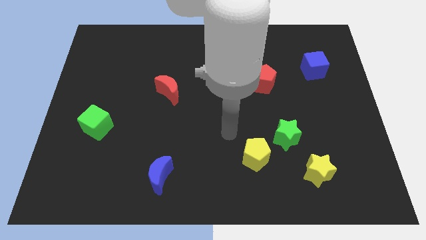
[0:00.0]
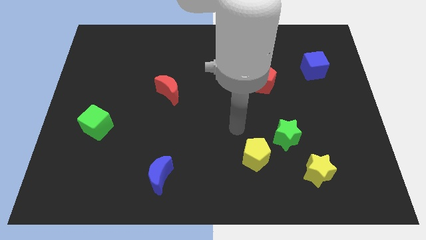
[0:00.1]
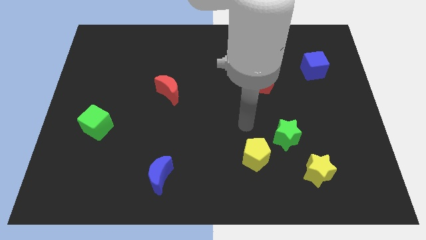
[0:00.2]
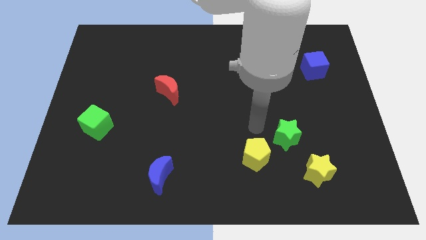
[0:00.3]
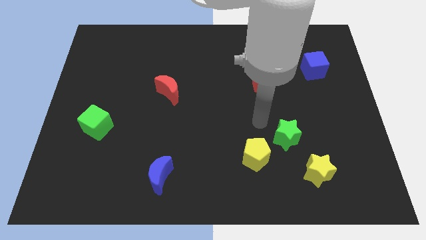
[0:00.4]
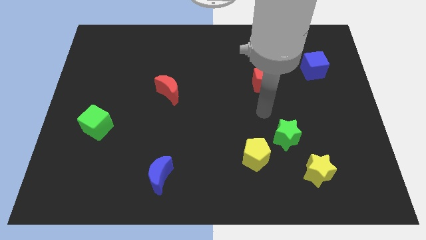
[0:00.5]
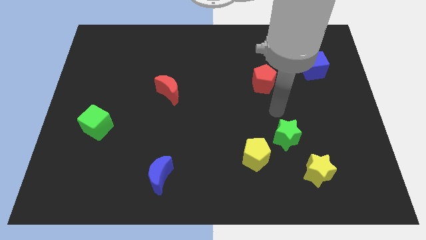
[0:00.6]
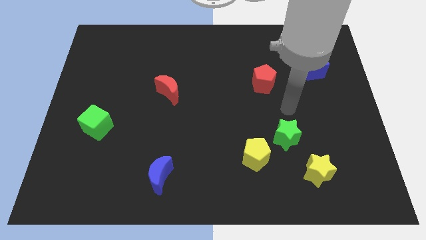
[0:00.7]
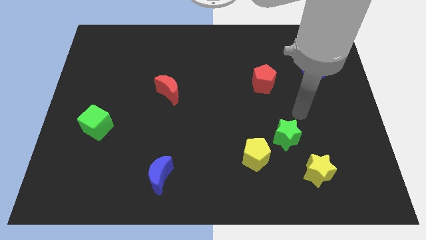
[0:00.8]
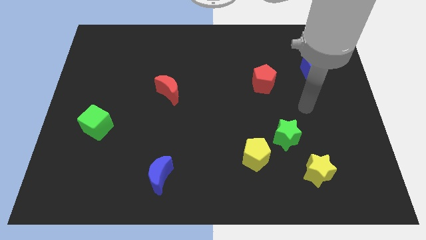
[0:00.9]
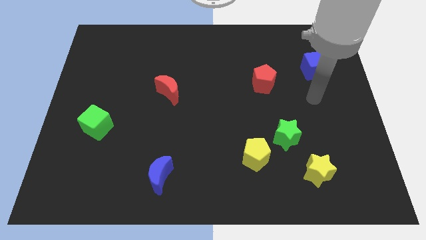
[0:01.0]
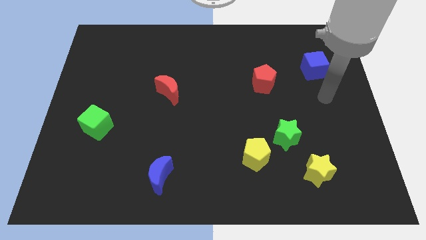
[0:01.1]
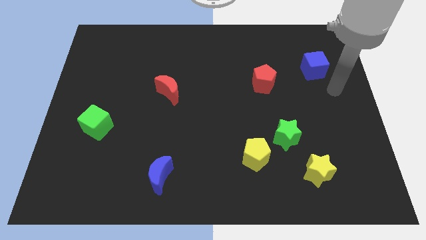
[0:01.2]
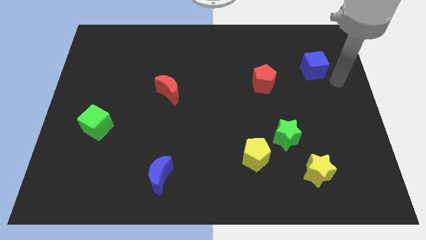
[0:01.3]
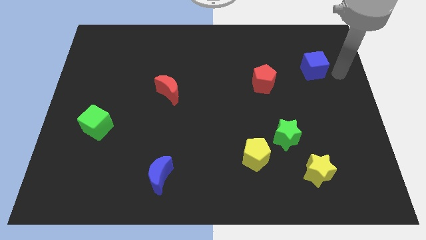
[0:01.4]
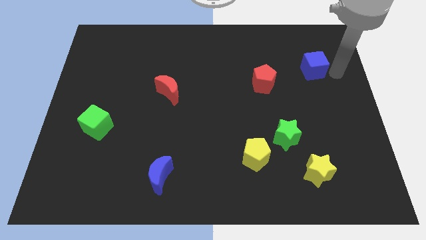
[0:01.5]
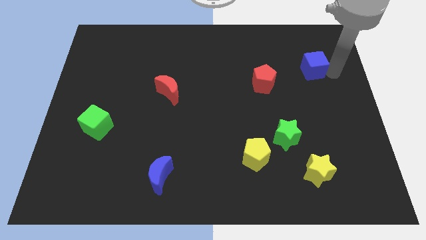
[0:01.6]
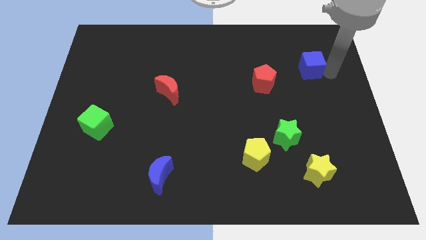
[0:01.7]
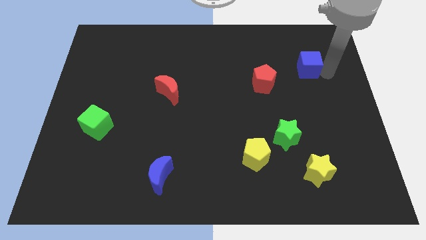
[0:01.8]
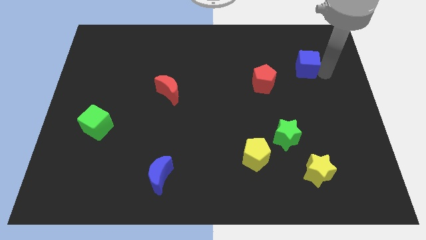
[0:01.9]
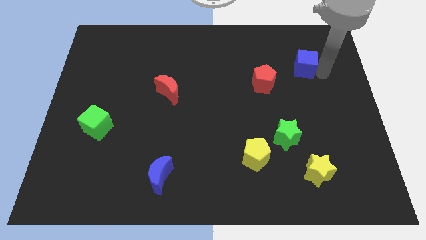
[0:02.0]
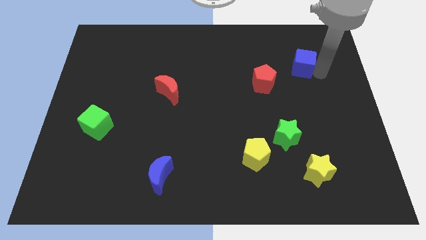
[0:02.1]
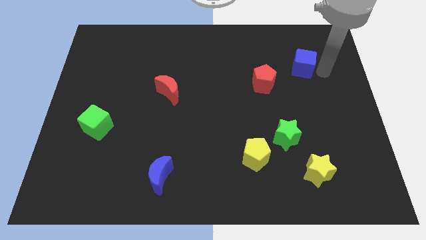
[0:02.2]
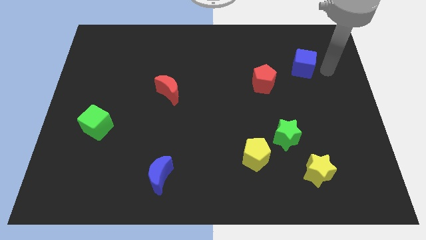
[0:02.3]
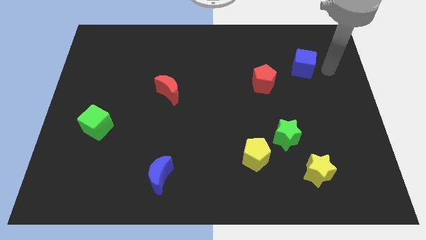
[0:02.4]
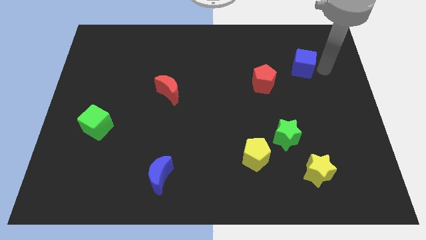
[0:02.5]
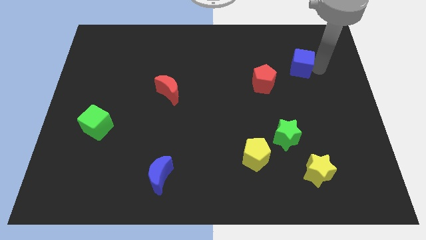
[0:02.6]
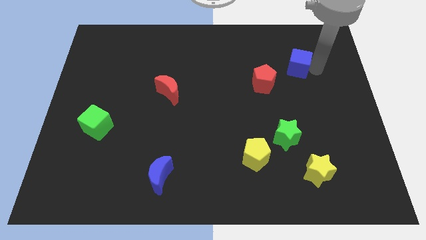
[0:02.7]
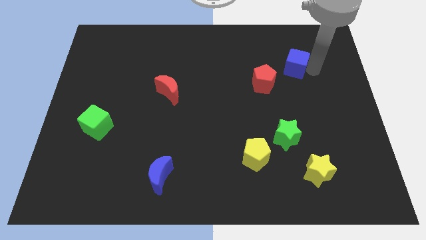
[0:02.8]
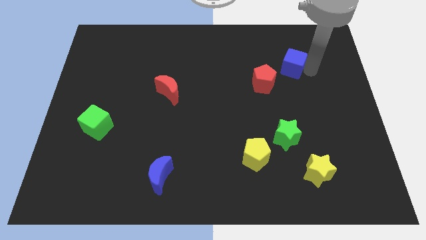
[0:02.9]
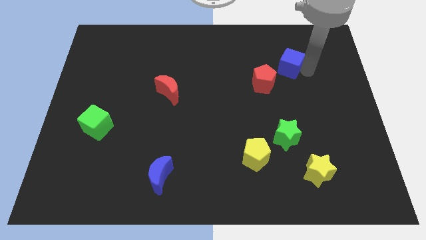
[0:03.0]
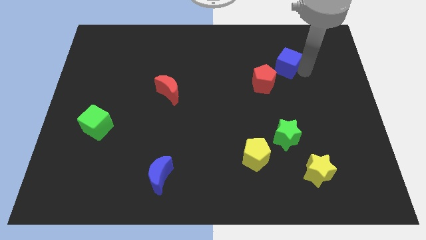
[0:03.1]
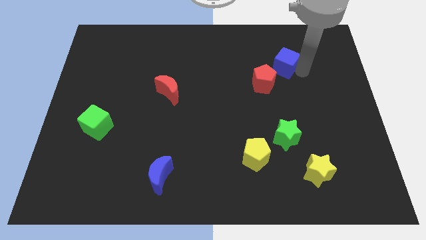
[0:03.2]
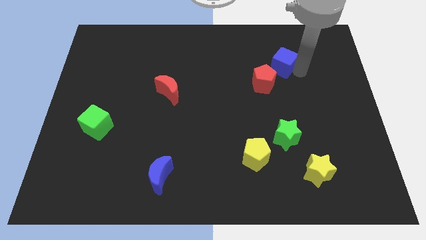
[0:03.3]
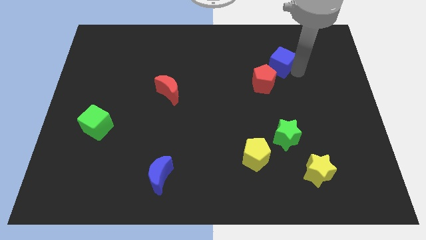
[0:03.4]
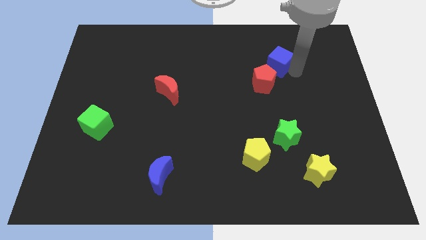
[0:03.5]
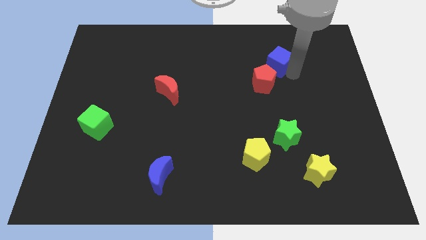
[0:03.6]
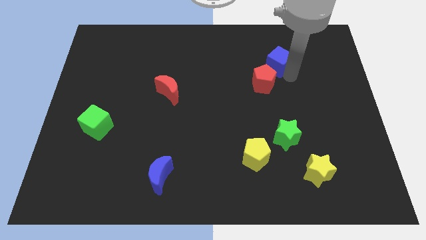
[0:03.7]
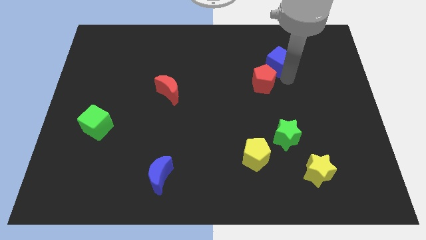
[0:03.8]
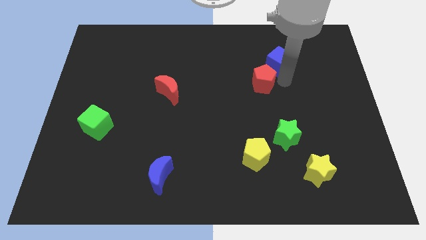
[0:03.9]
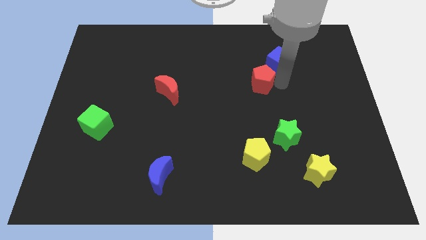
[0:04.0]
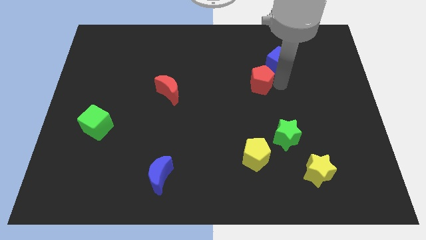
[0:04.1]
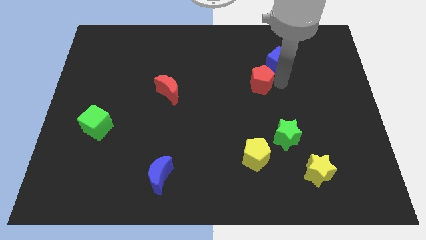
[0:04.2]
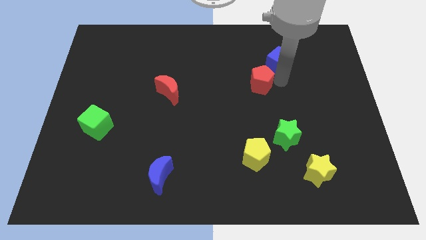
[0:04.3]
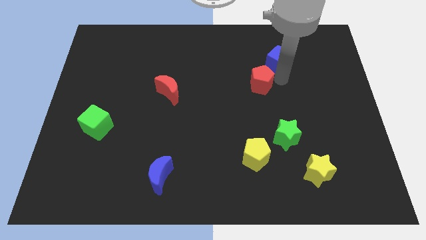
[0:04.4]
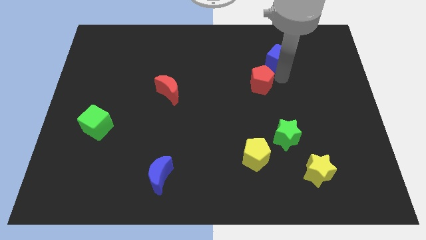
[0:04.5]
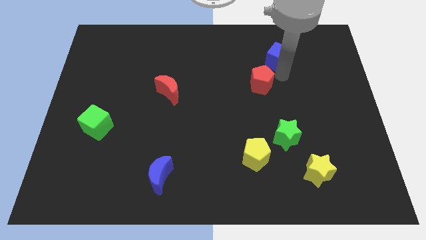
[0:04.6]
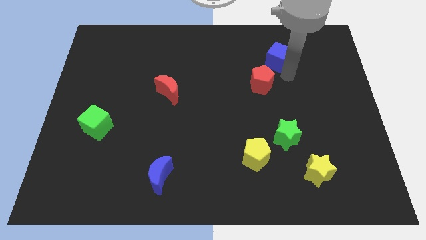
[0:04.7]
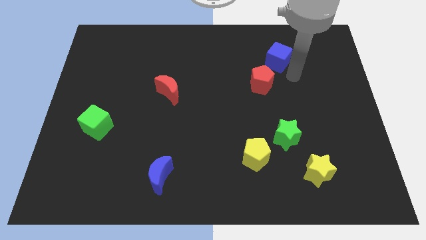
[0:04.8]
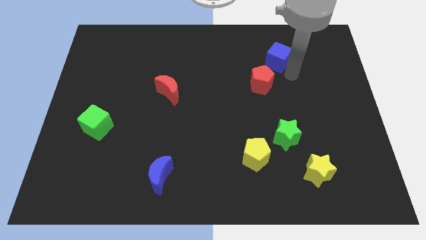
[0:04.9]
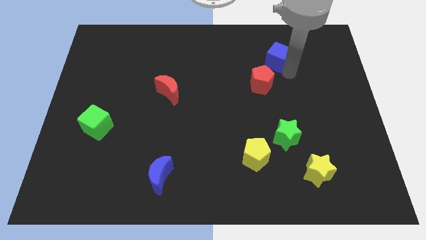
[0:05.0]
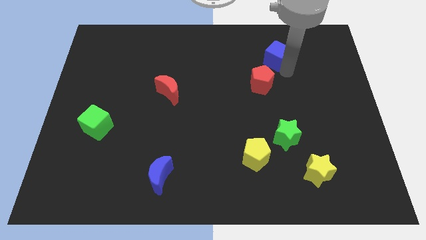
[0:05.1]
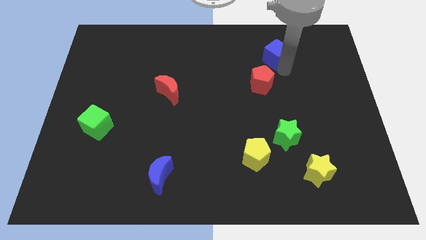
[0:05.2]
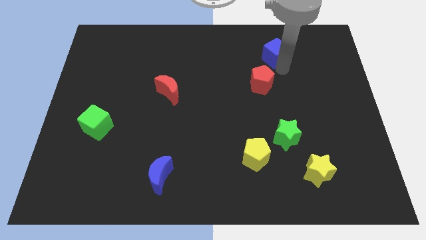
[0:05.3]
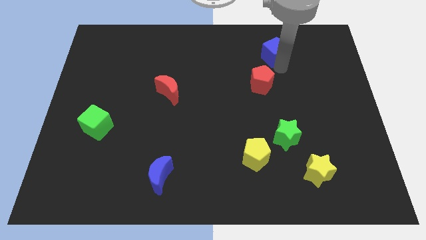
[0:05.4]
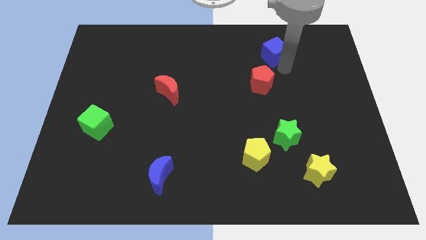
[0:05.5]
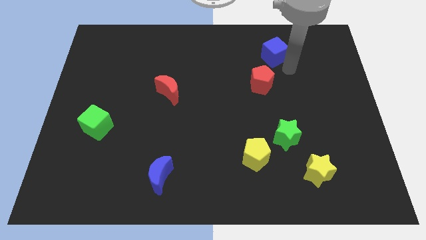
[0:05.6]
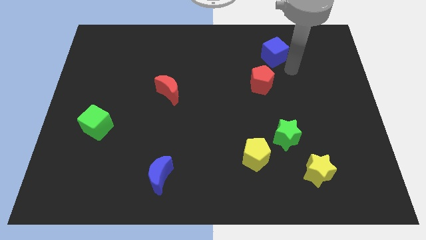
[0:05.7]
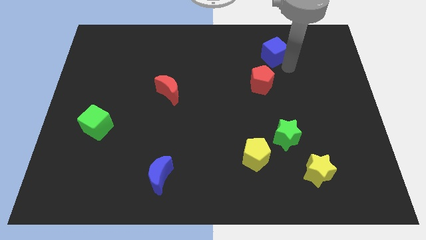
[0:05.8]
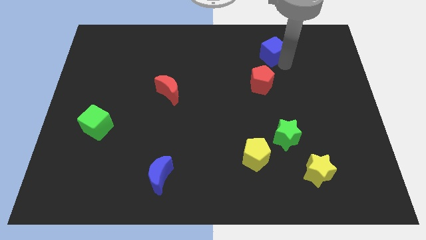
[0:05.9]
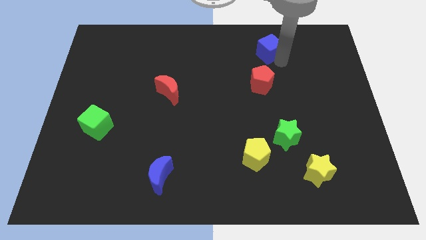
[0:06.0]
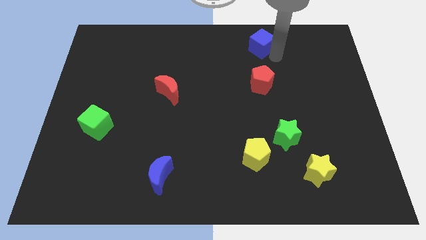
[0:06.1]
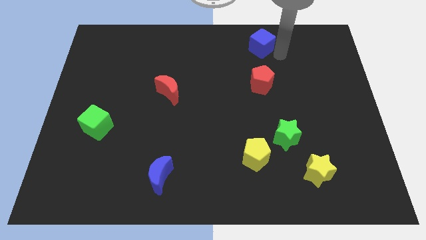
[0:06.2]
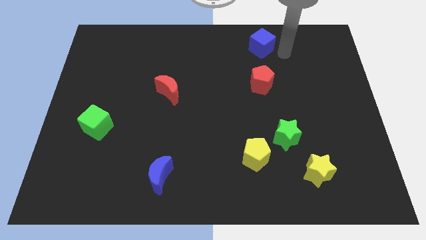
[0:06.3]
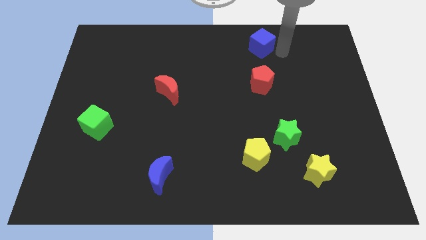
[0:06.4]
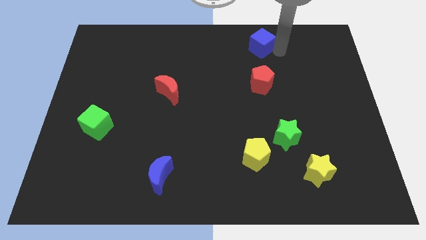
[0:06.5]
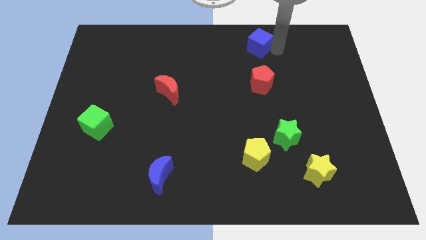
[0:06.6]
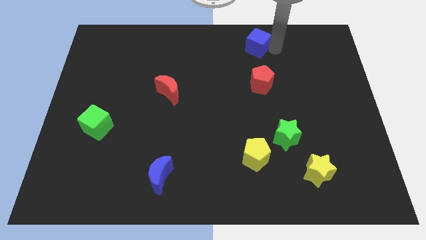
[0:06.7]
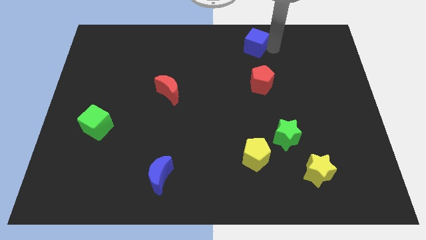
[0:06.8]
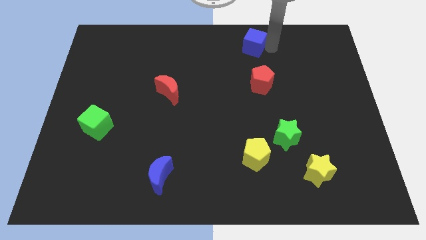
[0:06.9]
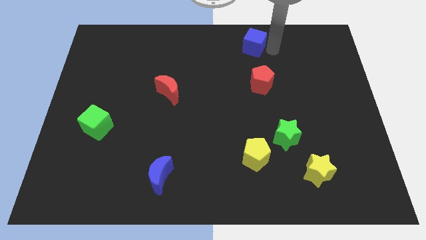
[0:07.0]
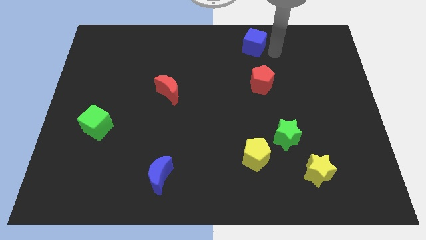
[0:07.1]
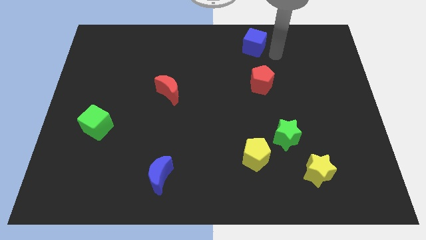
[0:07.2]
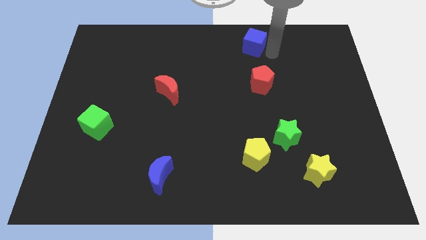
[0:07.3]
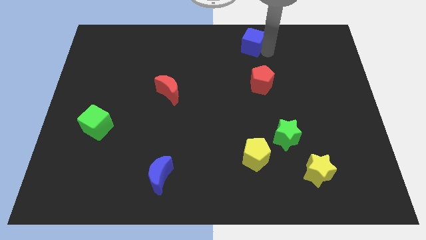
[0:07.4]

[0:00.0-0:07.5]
slide the blue cube to the top
